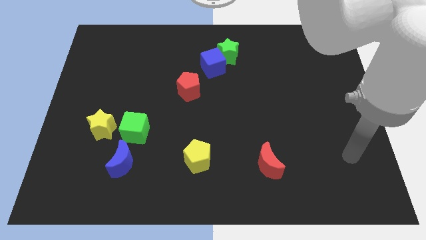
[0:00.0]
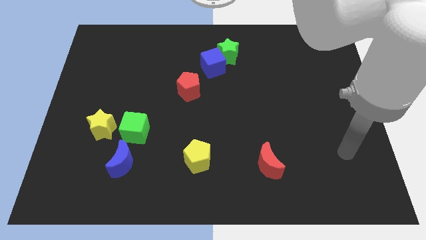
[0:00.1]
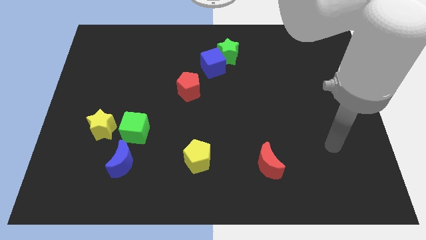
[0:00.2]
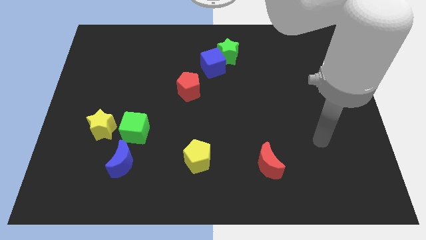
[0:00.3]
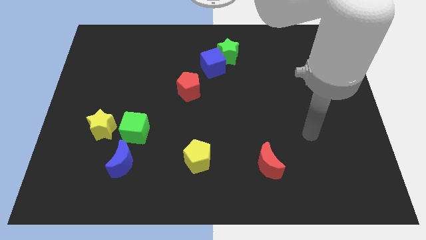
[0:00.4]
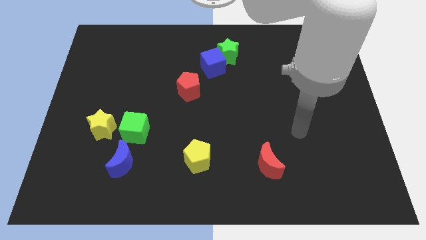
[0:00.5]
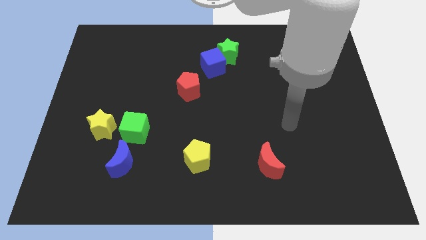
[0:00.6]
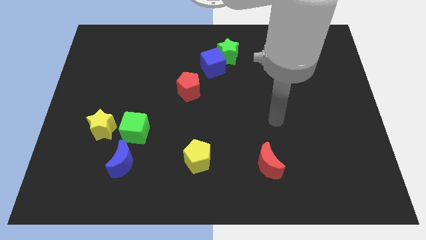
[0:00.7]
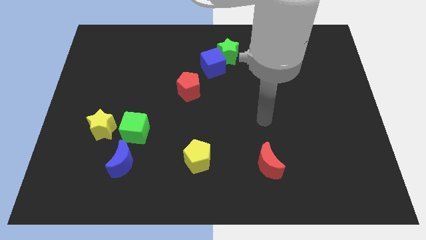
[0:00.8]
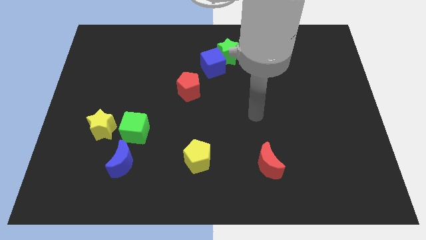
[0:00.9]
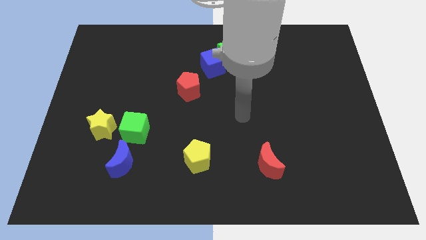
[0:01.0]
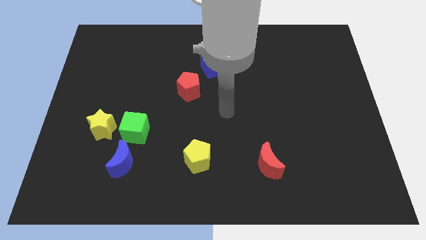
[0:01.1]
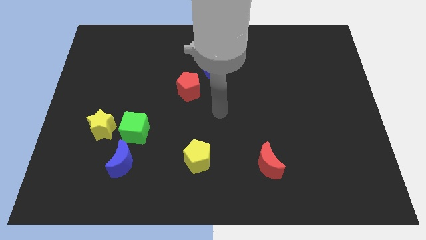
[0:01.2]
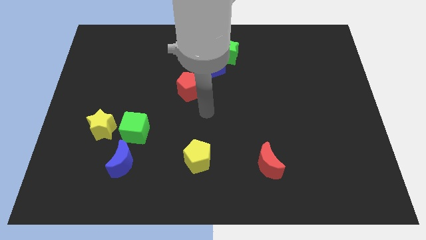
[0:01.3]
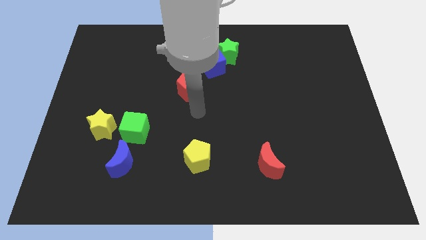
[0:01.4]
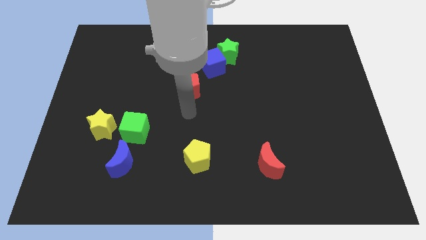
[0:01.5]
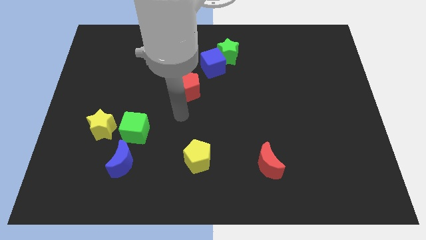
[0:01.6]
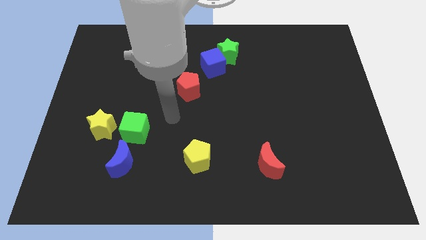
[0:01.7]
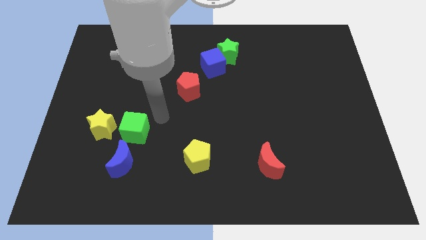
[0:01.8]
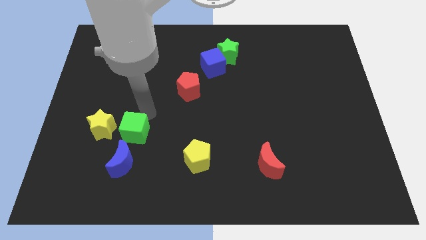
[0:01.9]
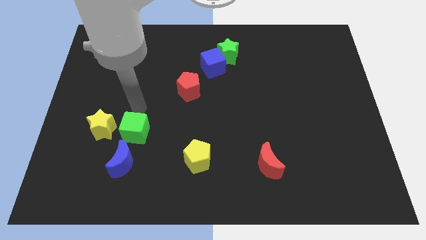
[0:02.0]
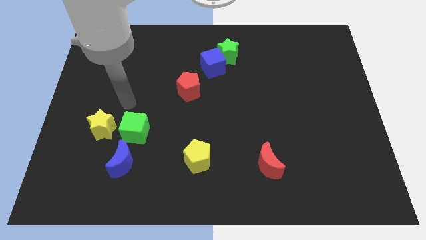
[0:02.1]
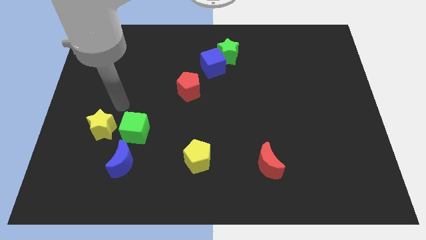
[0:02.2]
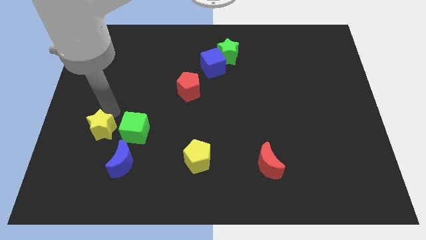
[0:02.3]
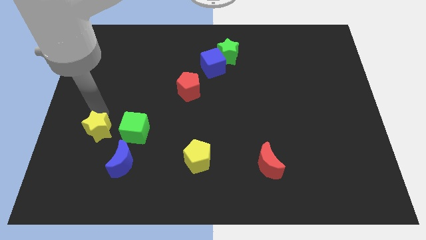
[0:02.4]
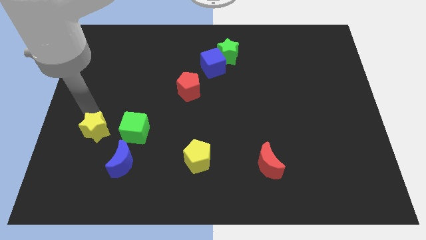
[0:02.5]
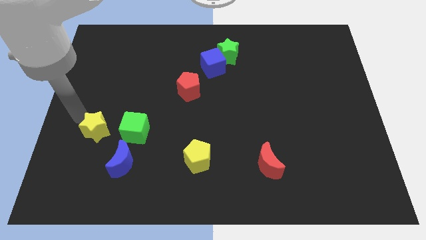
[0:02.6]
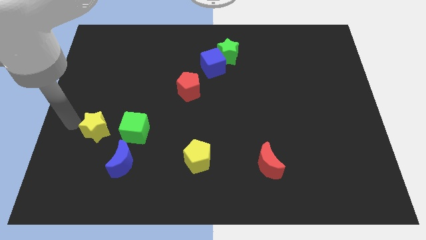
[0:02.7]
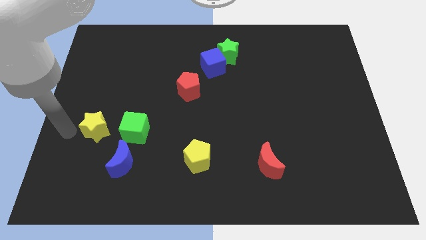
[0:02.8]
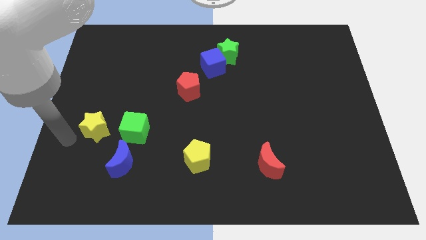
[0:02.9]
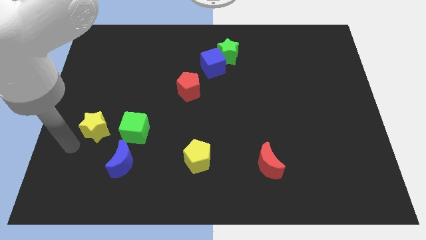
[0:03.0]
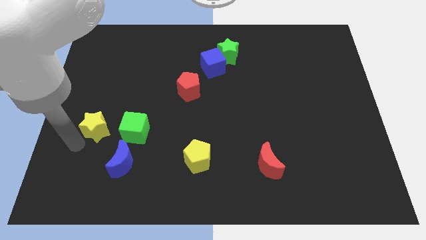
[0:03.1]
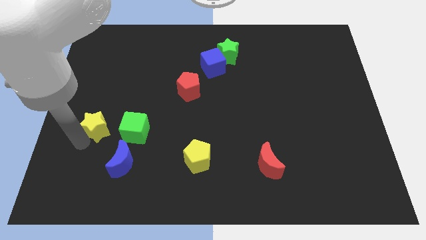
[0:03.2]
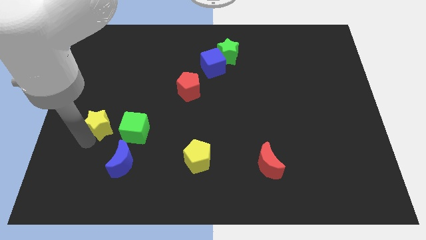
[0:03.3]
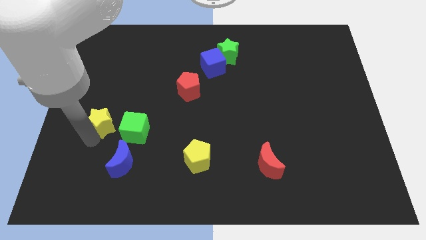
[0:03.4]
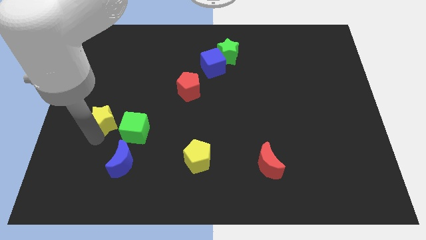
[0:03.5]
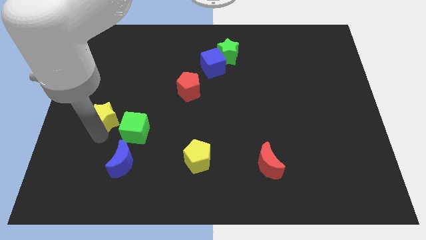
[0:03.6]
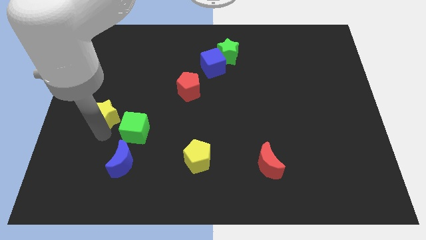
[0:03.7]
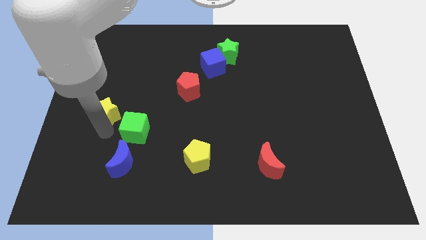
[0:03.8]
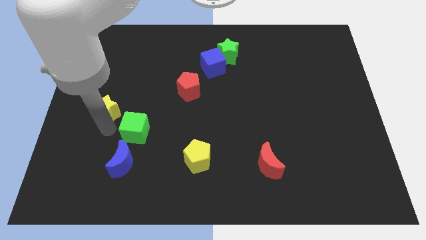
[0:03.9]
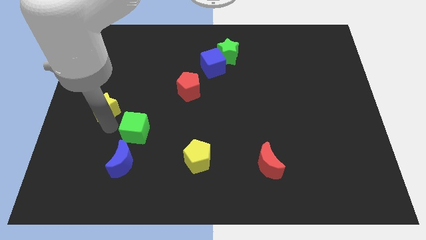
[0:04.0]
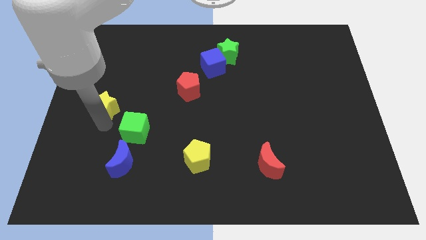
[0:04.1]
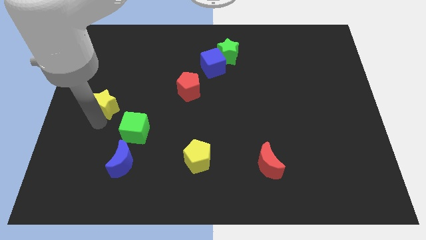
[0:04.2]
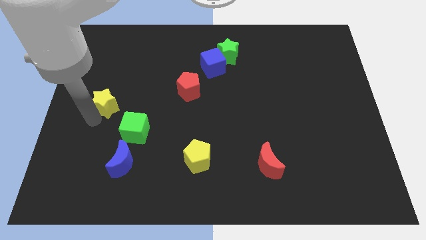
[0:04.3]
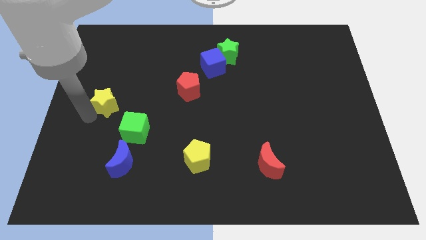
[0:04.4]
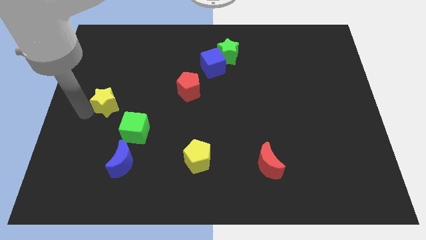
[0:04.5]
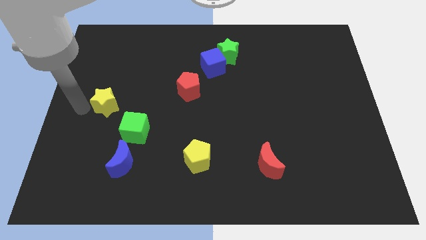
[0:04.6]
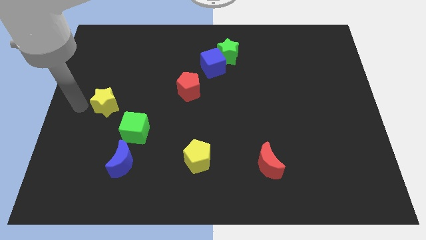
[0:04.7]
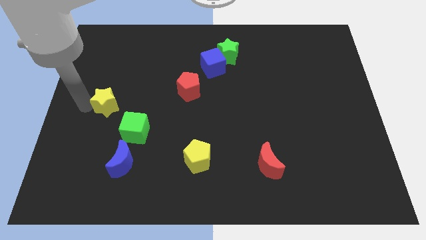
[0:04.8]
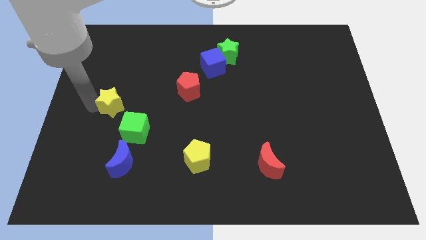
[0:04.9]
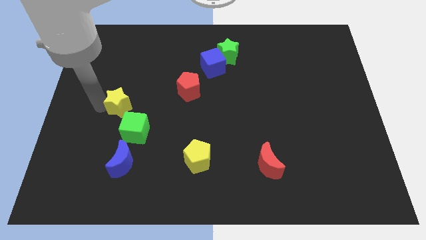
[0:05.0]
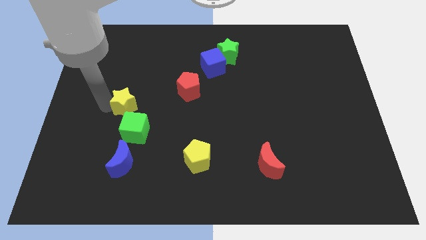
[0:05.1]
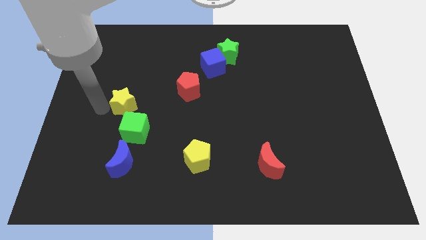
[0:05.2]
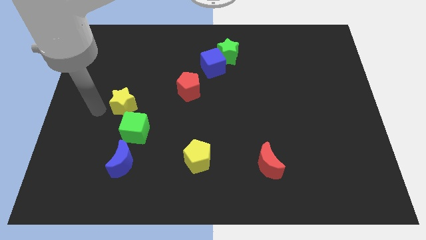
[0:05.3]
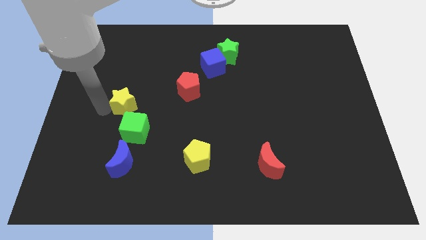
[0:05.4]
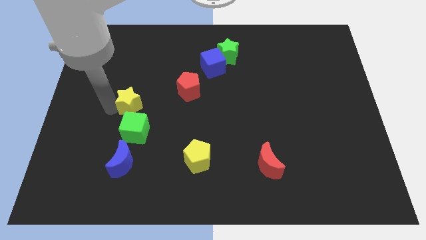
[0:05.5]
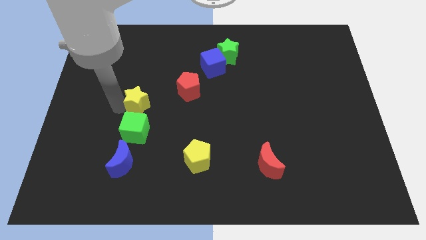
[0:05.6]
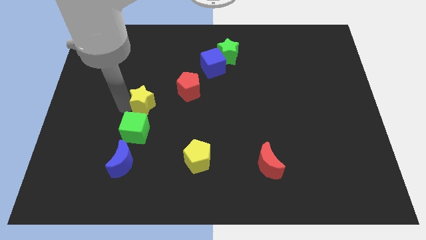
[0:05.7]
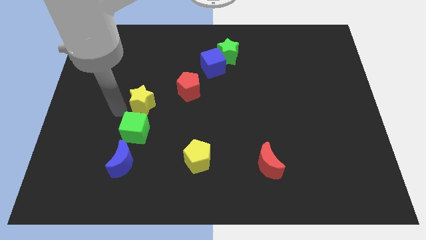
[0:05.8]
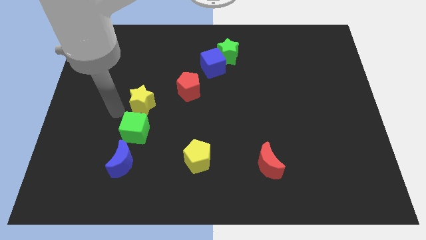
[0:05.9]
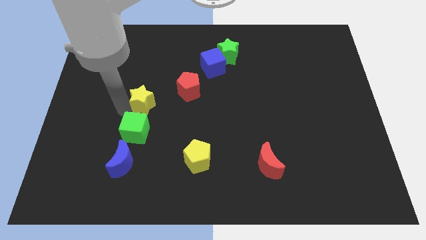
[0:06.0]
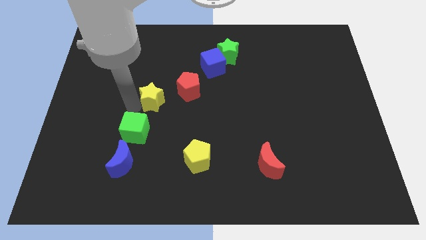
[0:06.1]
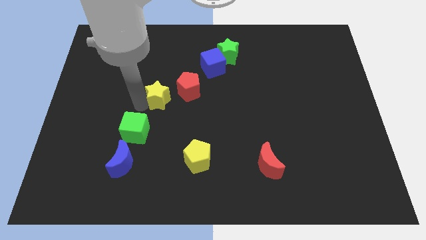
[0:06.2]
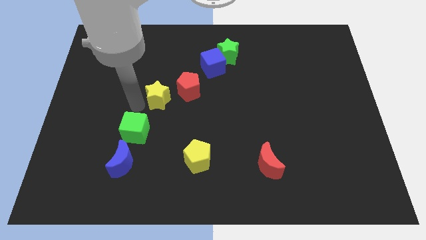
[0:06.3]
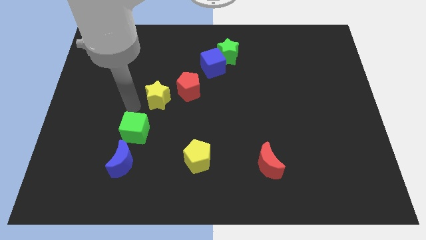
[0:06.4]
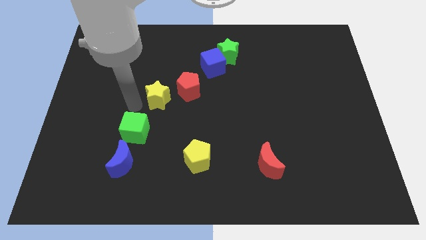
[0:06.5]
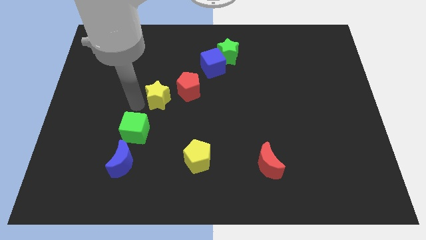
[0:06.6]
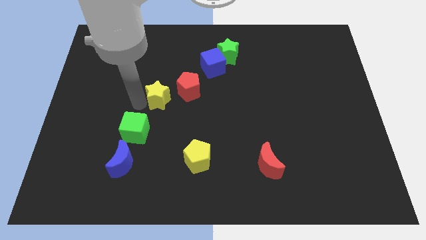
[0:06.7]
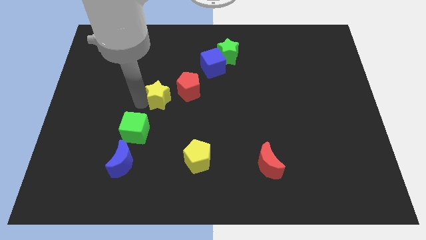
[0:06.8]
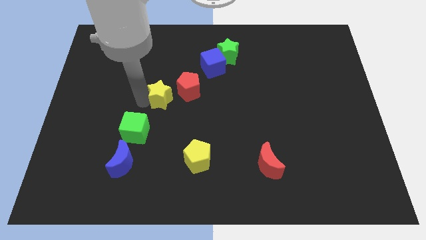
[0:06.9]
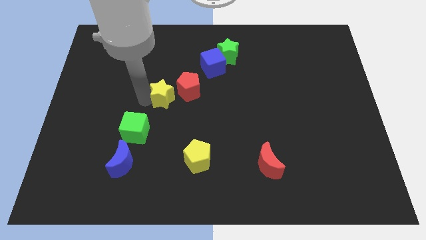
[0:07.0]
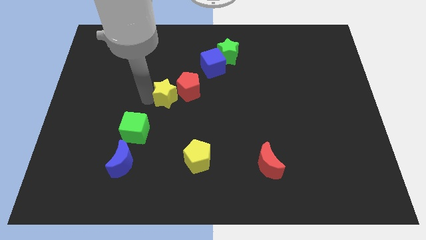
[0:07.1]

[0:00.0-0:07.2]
put the yellow star next to the red pentagon

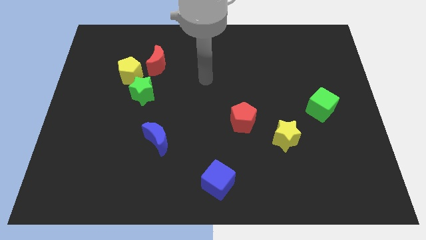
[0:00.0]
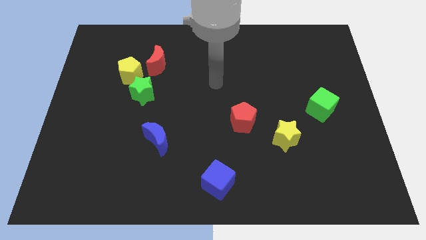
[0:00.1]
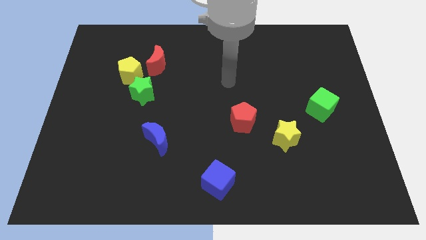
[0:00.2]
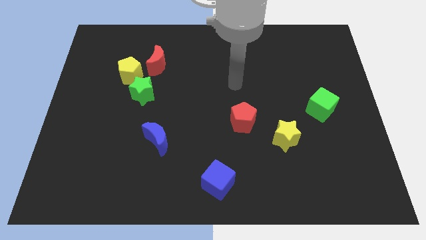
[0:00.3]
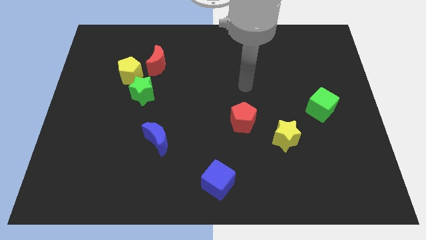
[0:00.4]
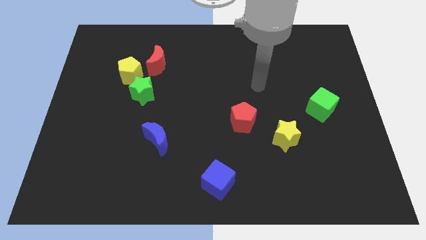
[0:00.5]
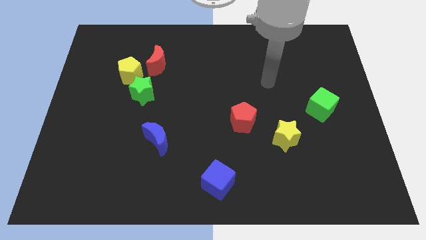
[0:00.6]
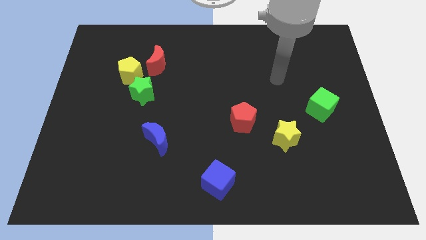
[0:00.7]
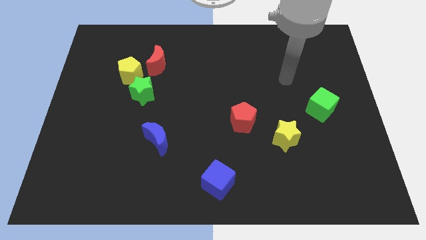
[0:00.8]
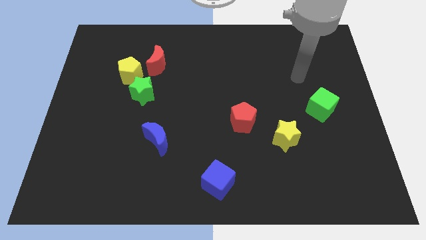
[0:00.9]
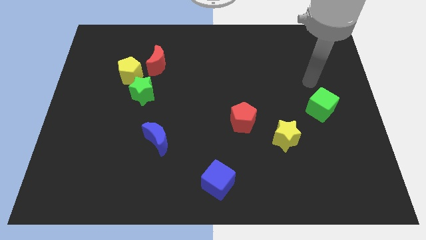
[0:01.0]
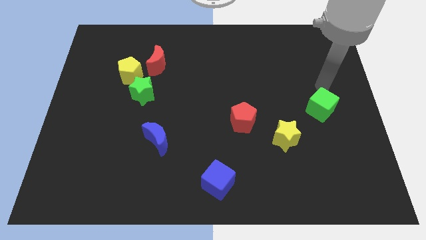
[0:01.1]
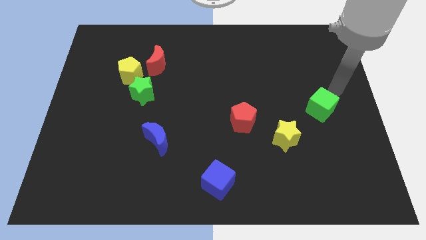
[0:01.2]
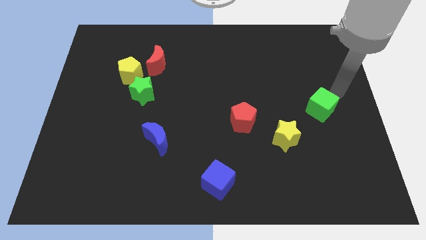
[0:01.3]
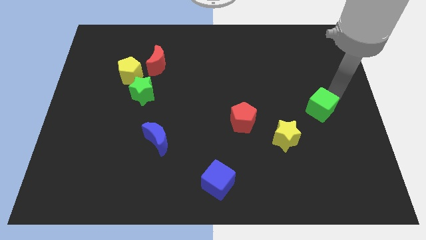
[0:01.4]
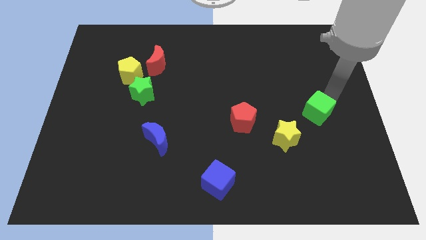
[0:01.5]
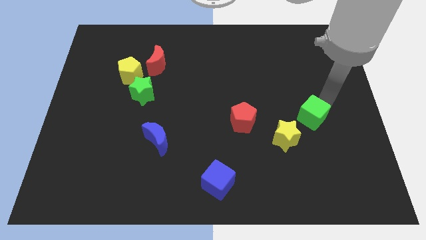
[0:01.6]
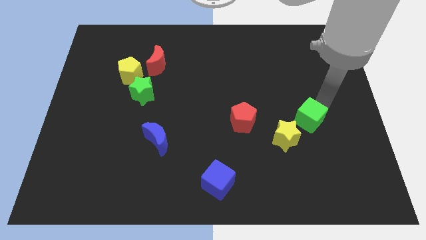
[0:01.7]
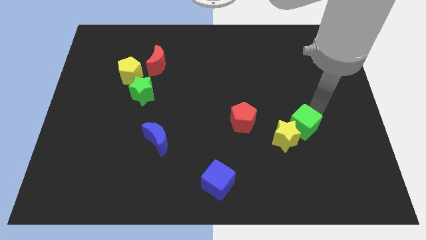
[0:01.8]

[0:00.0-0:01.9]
move the green cube to the yellow star
